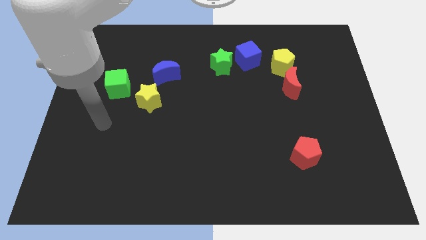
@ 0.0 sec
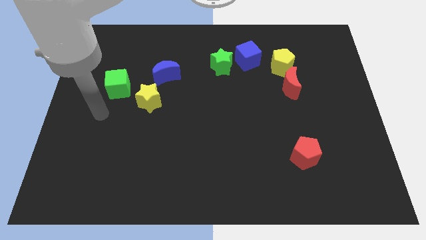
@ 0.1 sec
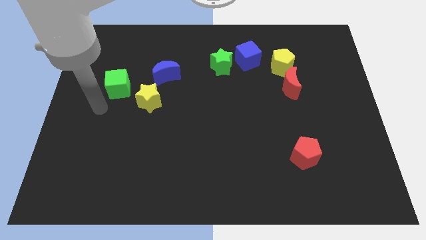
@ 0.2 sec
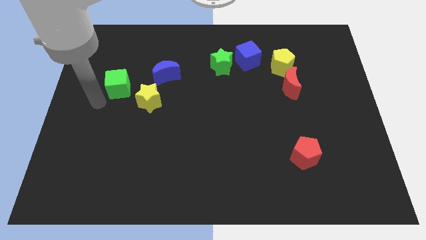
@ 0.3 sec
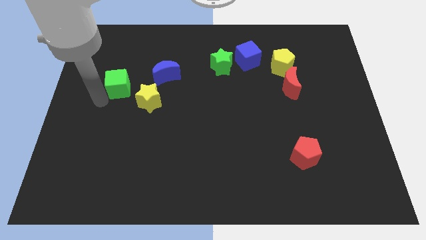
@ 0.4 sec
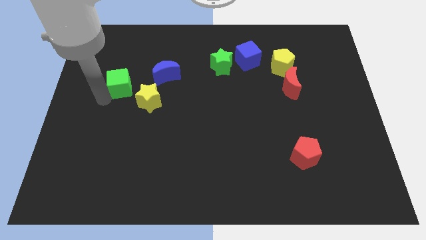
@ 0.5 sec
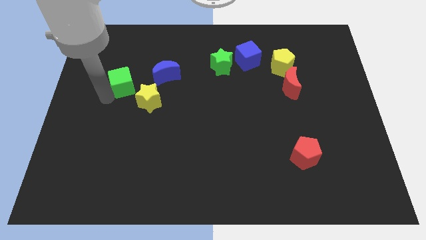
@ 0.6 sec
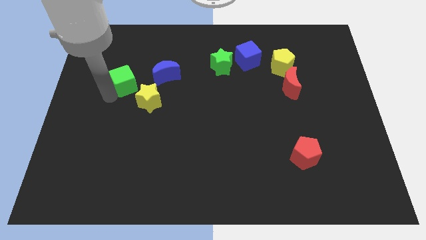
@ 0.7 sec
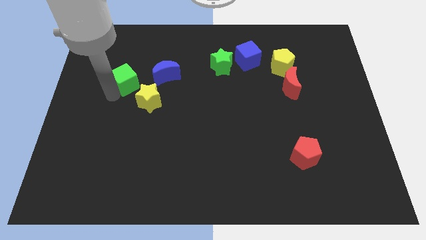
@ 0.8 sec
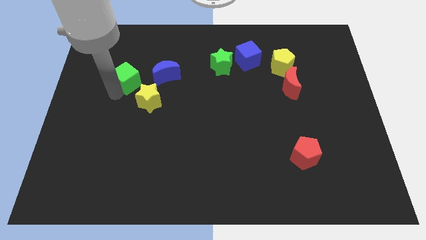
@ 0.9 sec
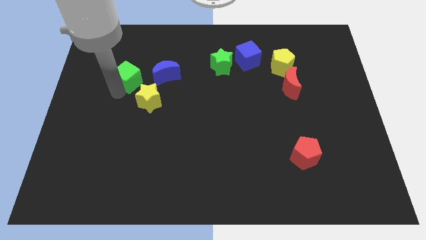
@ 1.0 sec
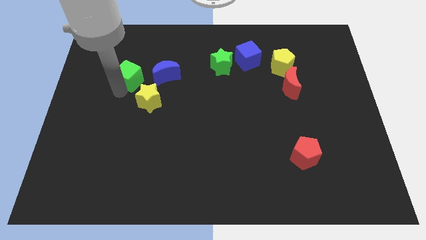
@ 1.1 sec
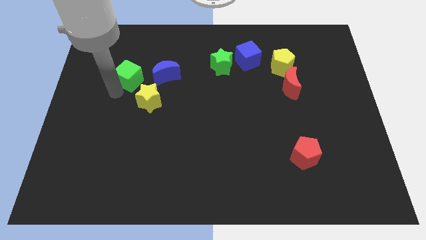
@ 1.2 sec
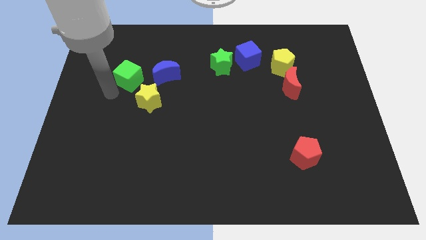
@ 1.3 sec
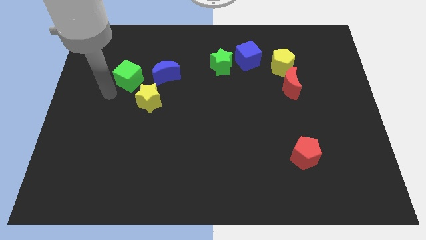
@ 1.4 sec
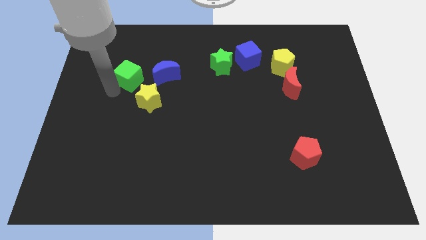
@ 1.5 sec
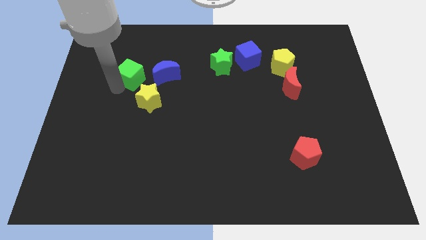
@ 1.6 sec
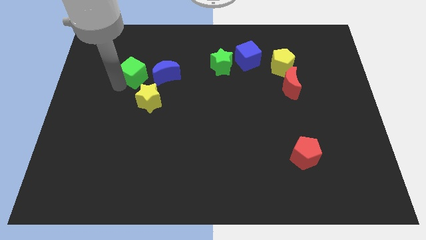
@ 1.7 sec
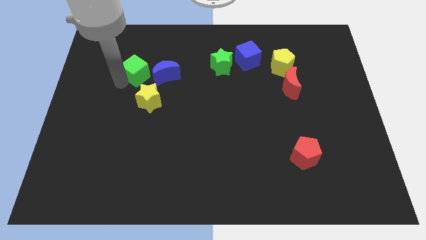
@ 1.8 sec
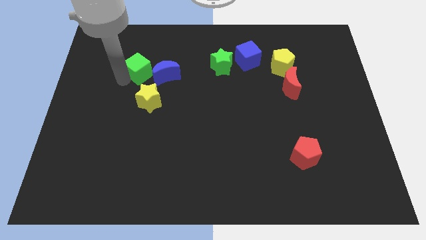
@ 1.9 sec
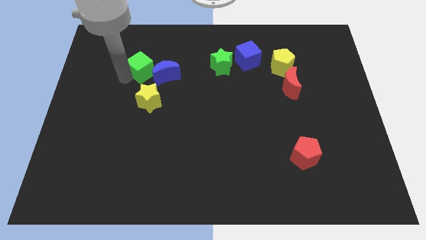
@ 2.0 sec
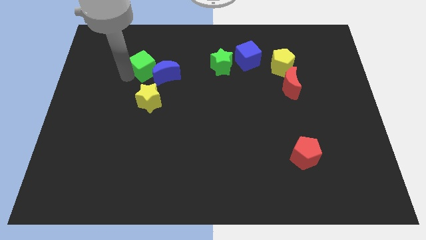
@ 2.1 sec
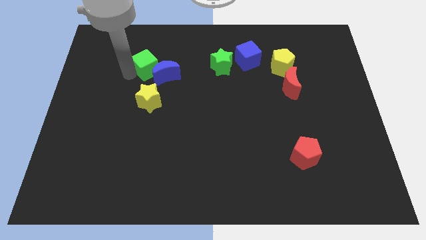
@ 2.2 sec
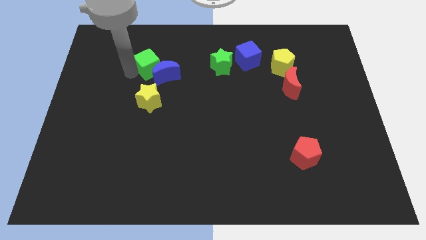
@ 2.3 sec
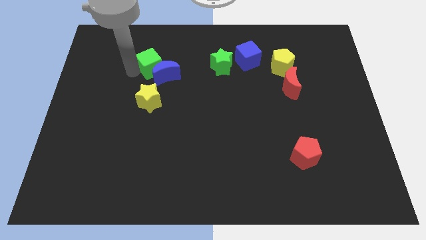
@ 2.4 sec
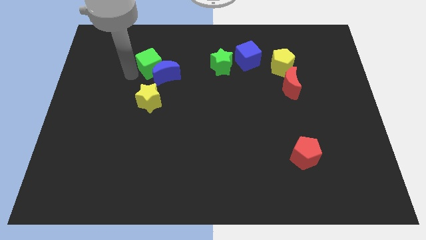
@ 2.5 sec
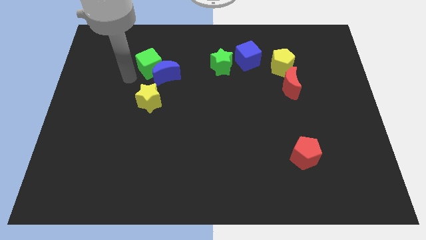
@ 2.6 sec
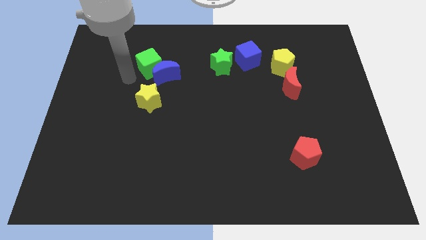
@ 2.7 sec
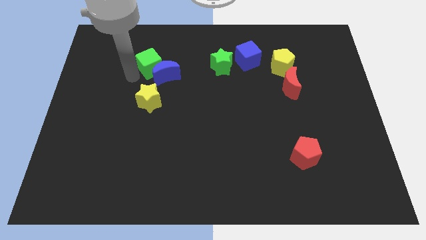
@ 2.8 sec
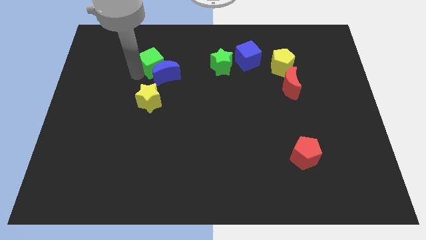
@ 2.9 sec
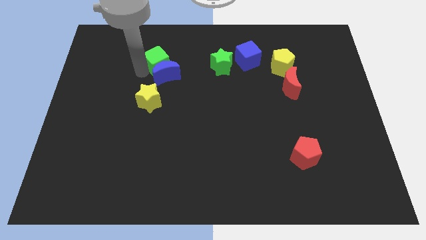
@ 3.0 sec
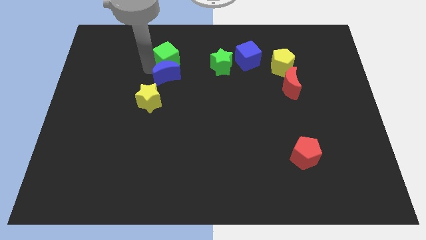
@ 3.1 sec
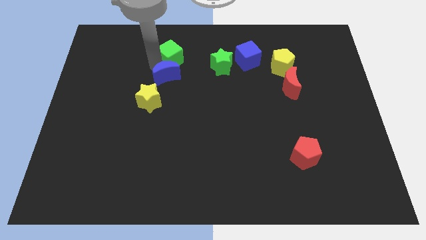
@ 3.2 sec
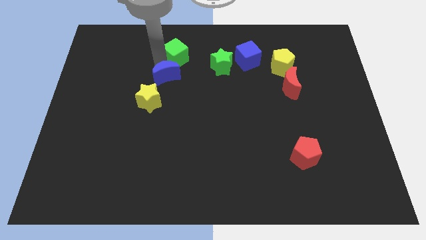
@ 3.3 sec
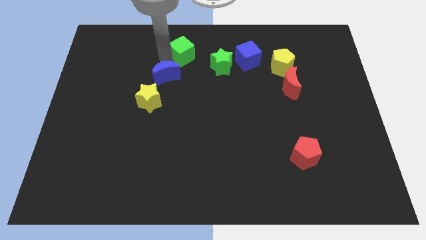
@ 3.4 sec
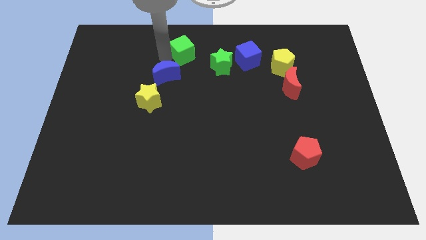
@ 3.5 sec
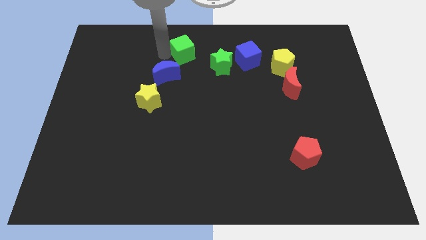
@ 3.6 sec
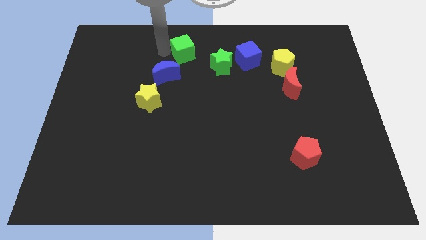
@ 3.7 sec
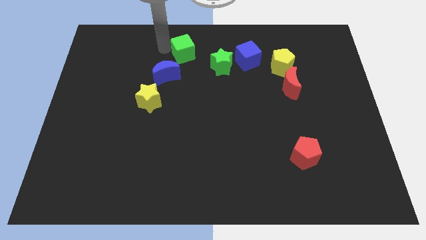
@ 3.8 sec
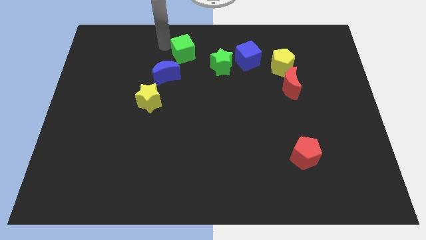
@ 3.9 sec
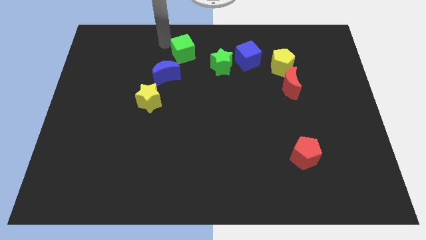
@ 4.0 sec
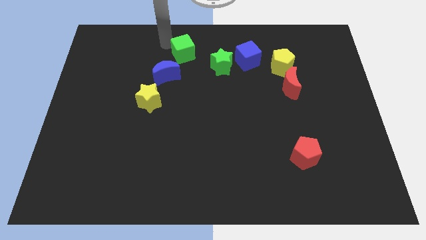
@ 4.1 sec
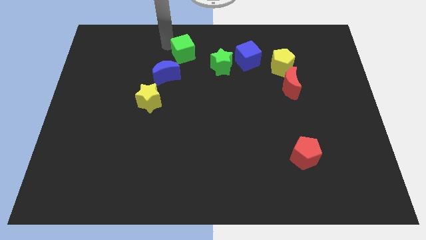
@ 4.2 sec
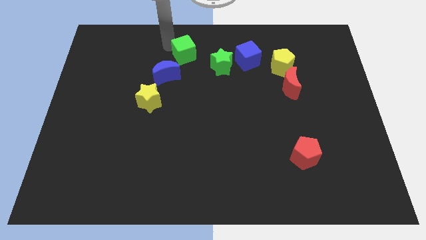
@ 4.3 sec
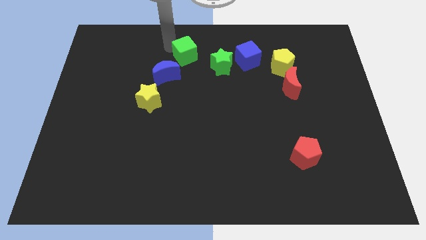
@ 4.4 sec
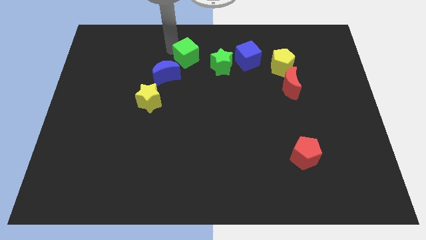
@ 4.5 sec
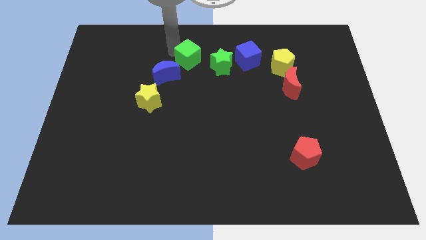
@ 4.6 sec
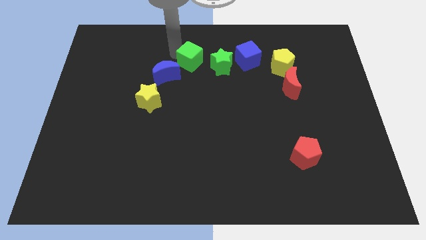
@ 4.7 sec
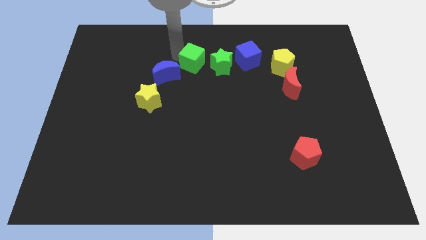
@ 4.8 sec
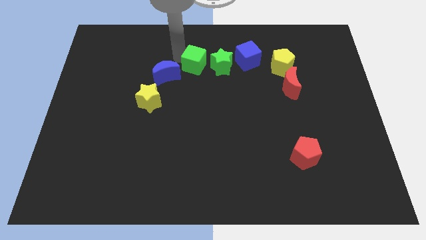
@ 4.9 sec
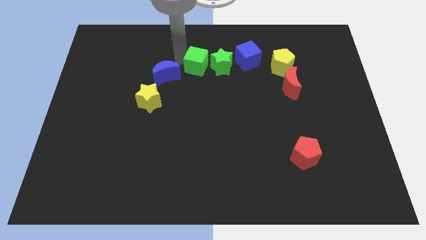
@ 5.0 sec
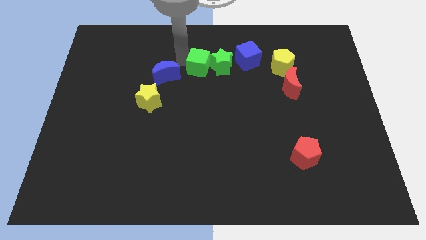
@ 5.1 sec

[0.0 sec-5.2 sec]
move the green cube to the green star

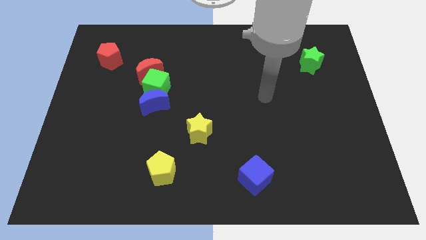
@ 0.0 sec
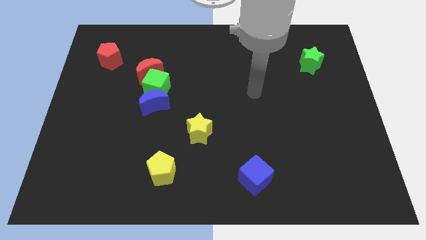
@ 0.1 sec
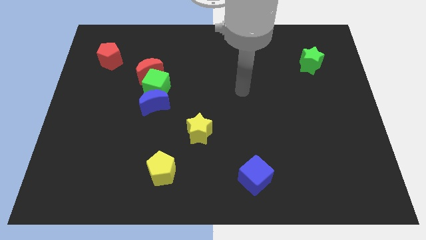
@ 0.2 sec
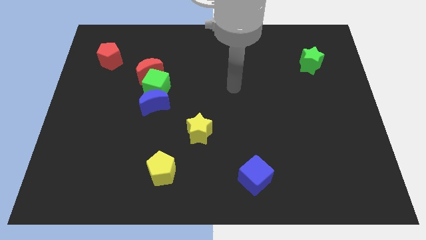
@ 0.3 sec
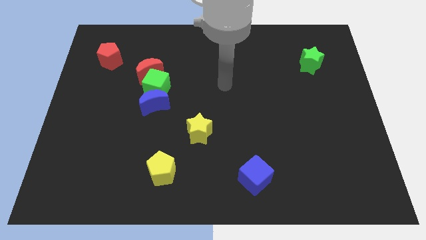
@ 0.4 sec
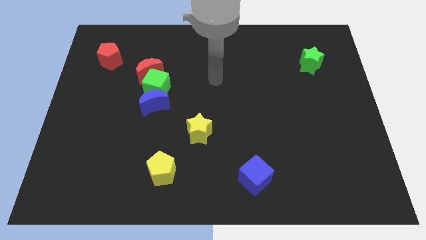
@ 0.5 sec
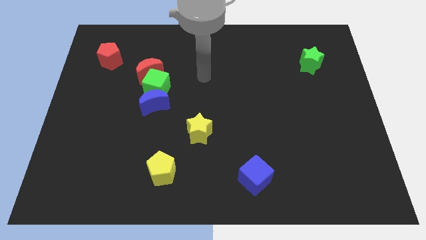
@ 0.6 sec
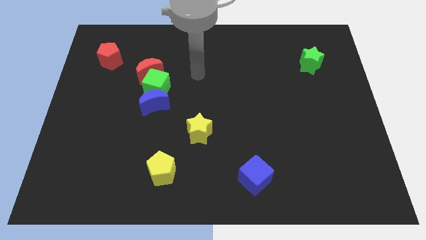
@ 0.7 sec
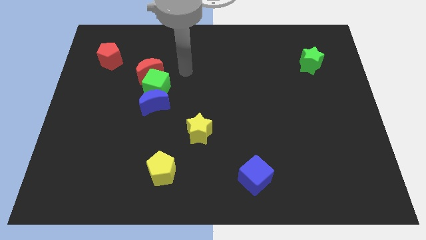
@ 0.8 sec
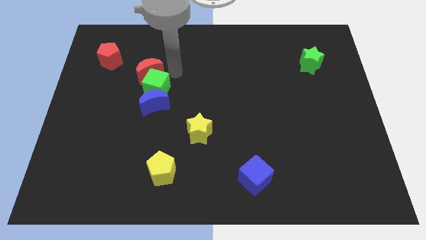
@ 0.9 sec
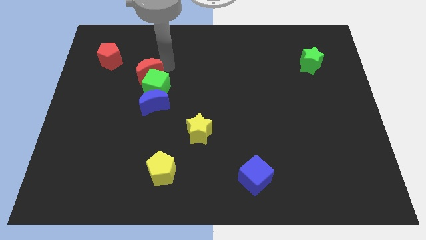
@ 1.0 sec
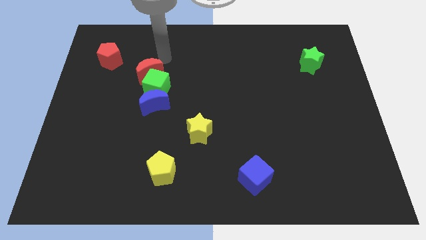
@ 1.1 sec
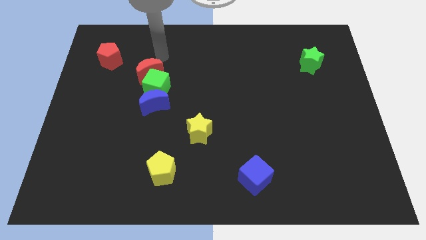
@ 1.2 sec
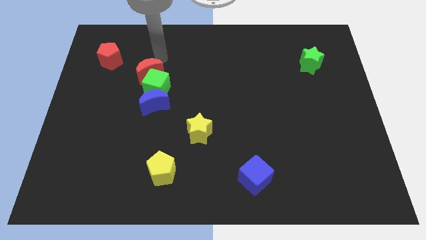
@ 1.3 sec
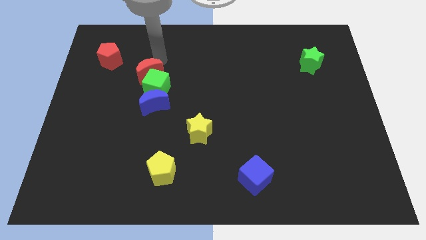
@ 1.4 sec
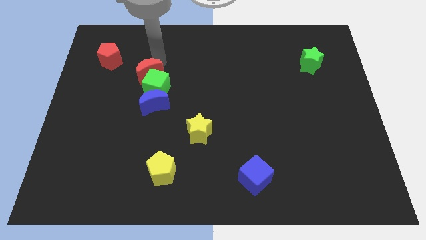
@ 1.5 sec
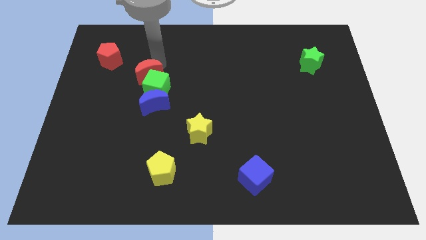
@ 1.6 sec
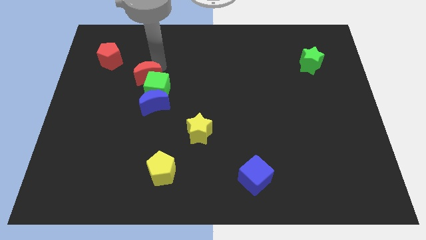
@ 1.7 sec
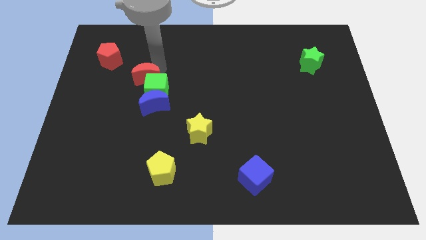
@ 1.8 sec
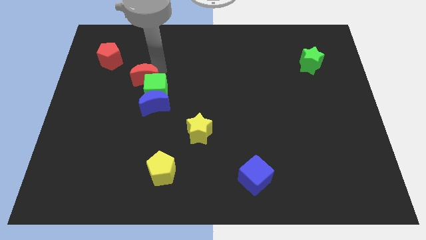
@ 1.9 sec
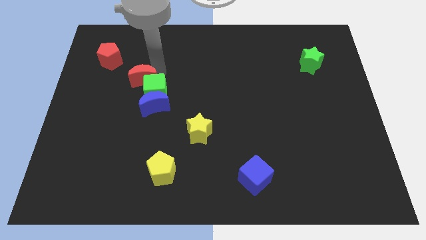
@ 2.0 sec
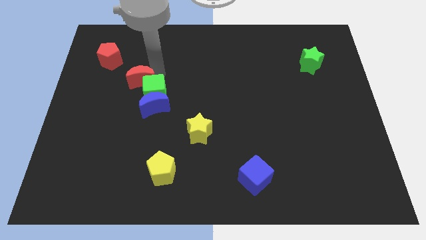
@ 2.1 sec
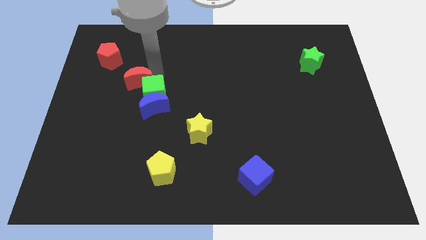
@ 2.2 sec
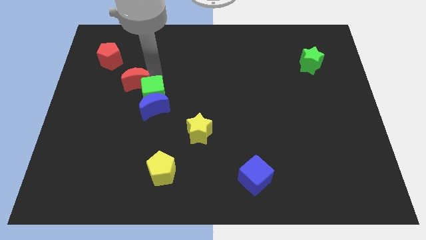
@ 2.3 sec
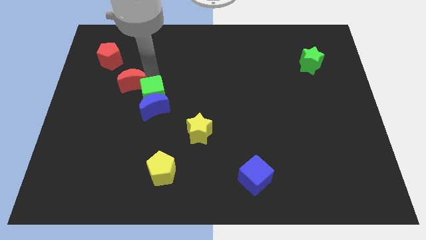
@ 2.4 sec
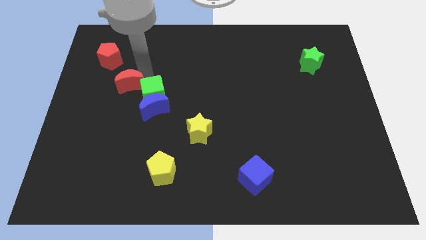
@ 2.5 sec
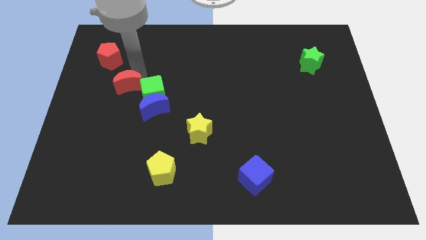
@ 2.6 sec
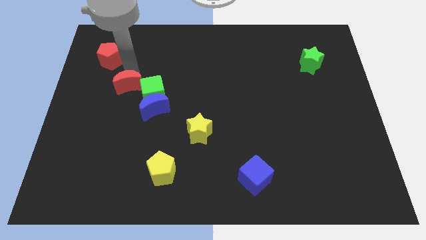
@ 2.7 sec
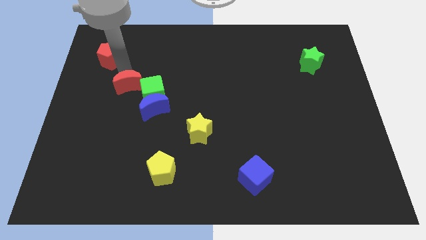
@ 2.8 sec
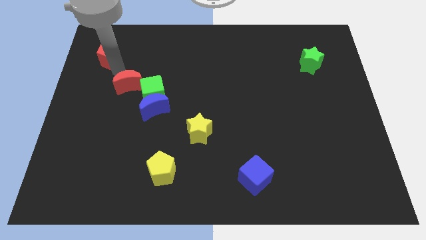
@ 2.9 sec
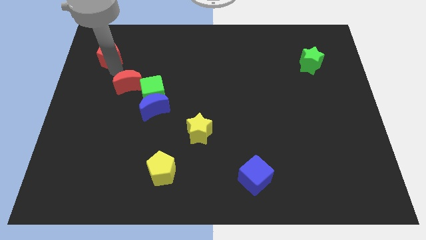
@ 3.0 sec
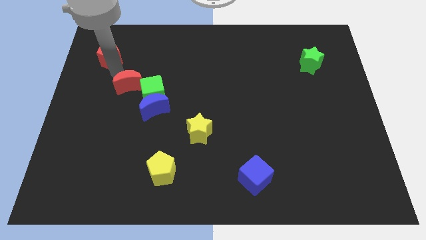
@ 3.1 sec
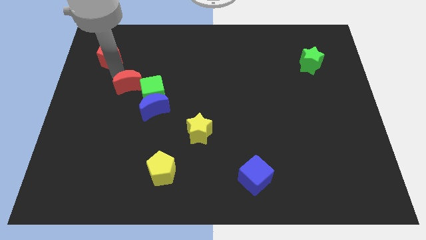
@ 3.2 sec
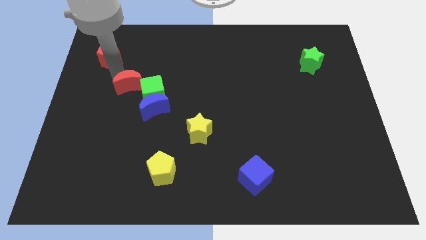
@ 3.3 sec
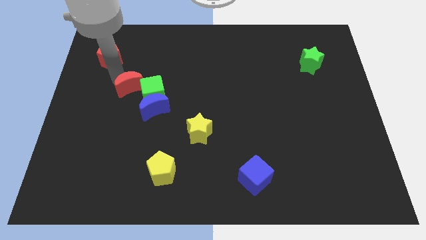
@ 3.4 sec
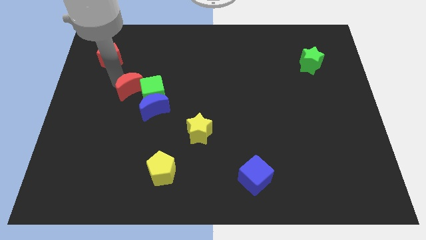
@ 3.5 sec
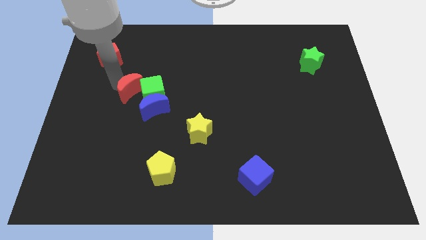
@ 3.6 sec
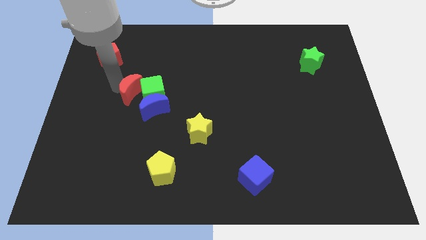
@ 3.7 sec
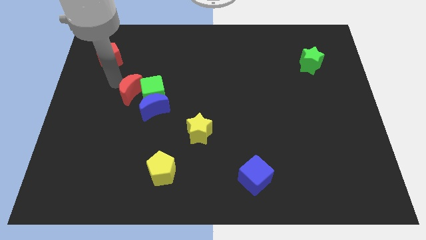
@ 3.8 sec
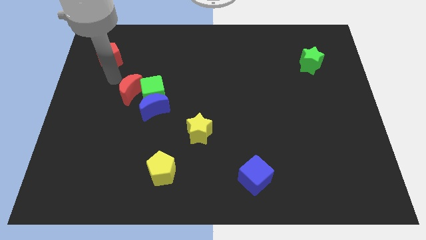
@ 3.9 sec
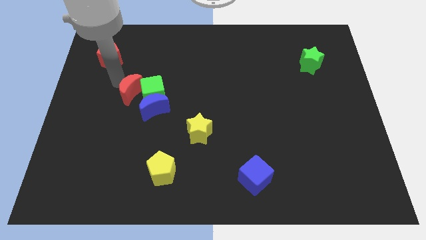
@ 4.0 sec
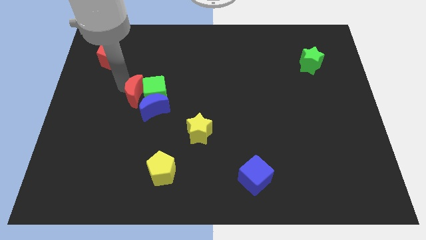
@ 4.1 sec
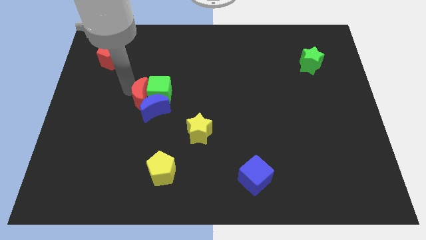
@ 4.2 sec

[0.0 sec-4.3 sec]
move the red moon towards the blue moon
